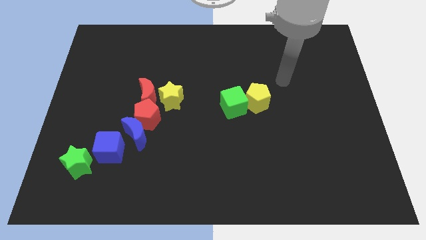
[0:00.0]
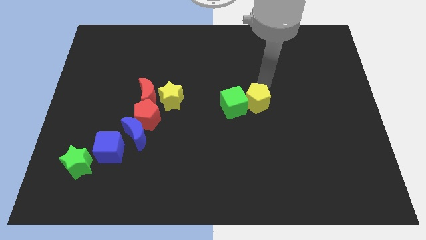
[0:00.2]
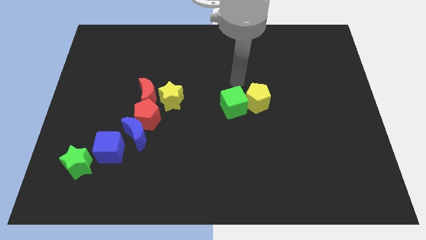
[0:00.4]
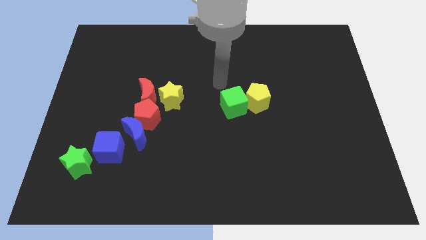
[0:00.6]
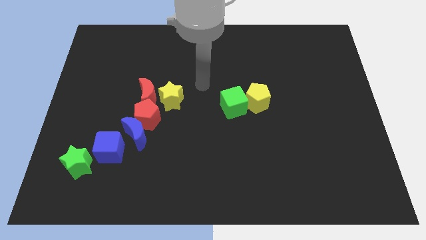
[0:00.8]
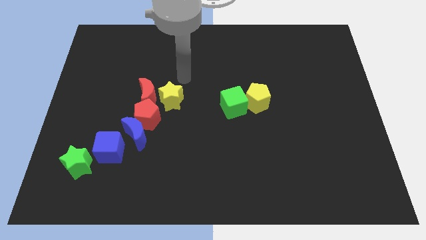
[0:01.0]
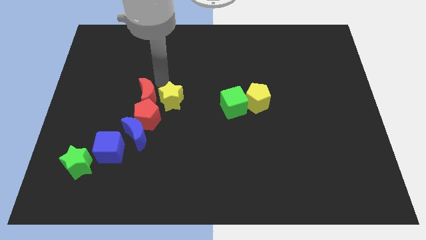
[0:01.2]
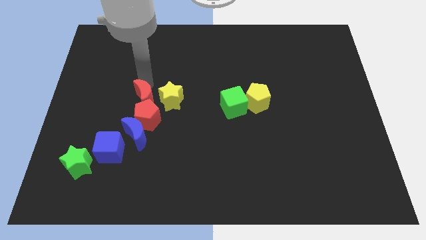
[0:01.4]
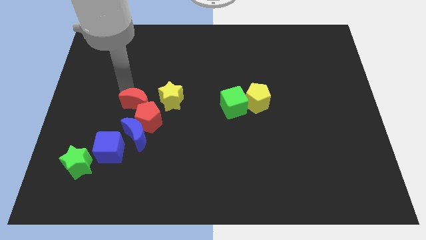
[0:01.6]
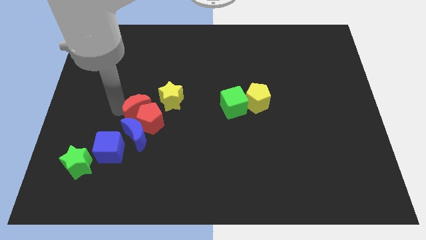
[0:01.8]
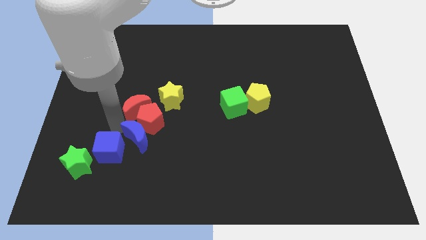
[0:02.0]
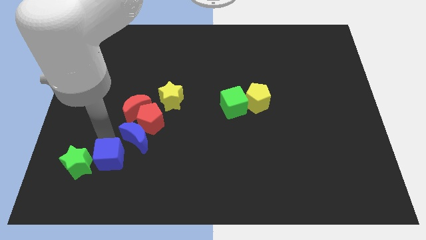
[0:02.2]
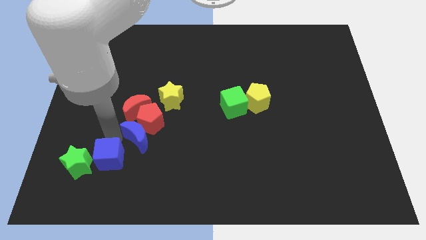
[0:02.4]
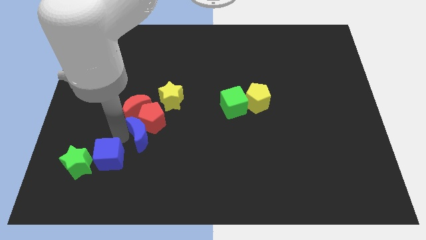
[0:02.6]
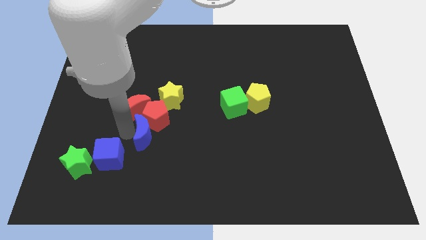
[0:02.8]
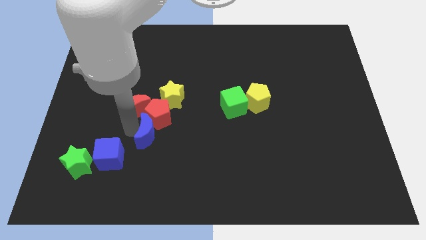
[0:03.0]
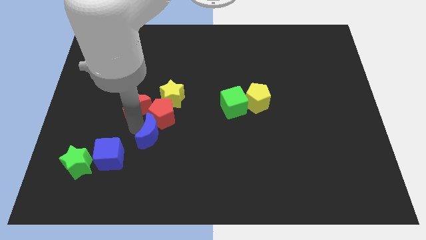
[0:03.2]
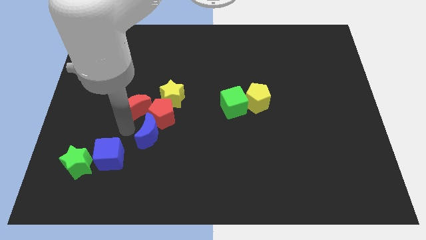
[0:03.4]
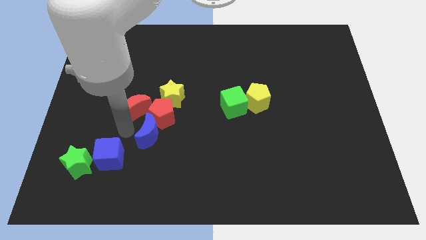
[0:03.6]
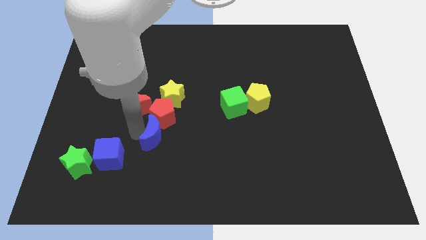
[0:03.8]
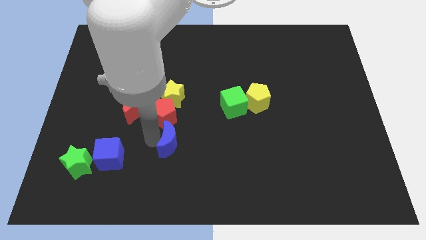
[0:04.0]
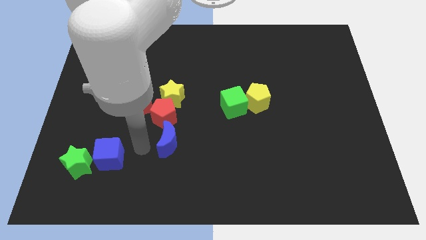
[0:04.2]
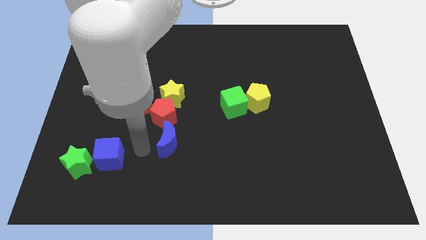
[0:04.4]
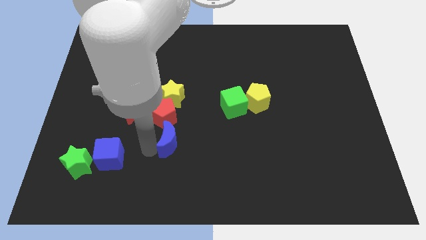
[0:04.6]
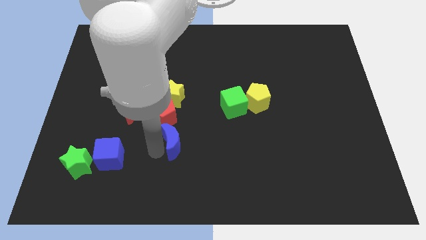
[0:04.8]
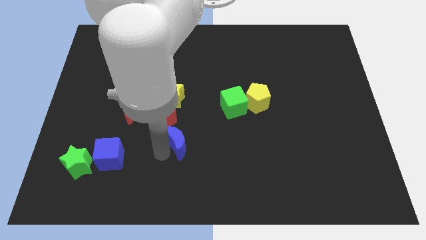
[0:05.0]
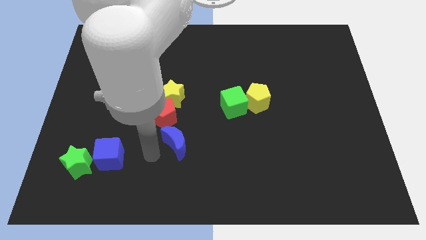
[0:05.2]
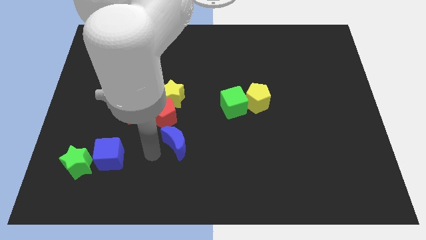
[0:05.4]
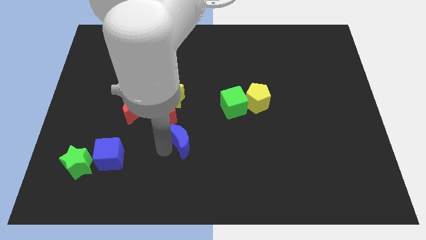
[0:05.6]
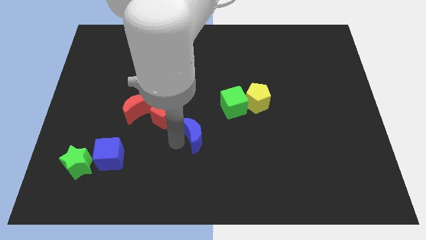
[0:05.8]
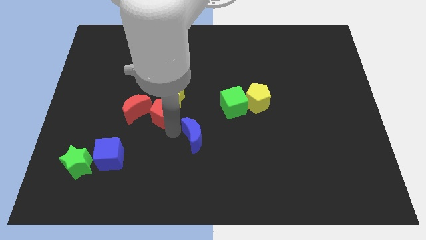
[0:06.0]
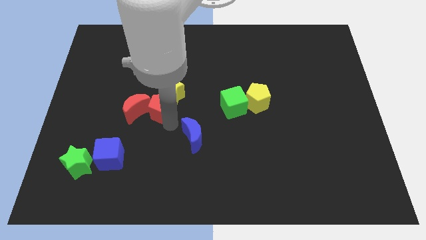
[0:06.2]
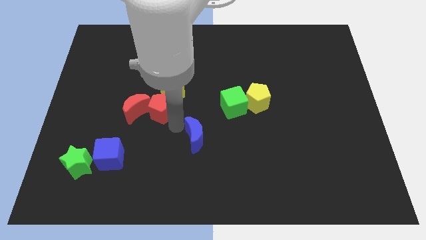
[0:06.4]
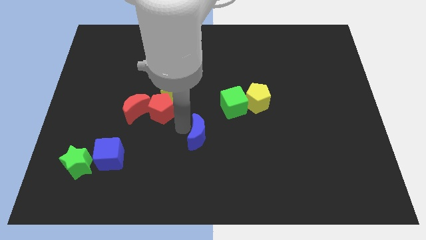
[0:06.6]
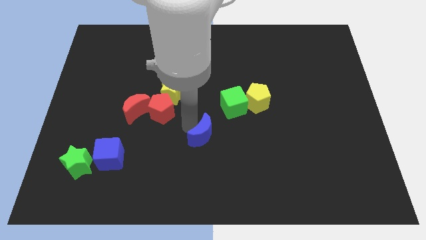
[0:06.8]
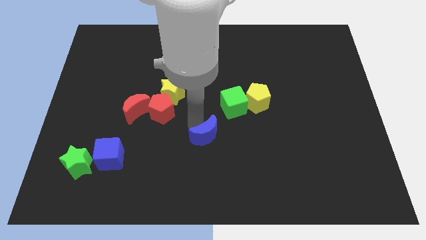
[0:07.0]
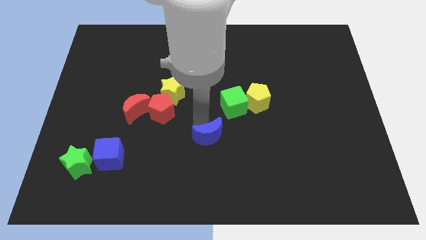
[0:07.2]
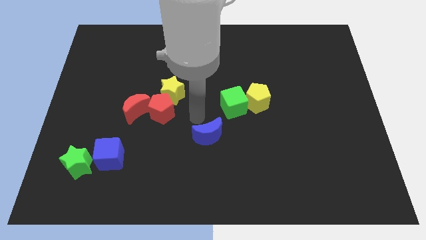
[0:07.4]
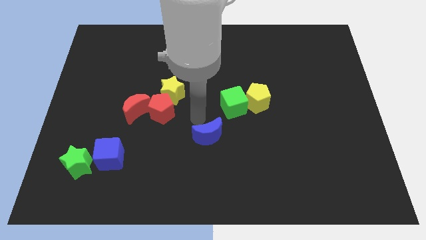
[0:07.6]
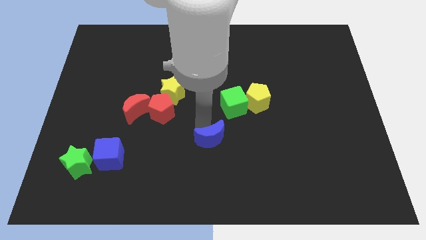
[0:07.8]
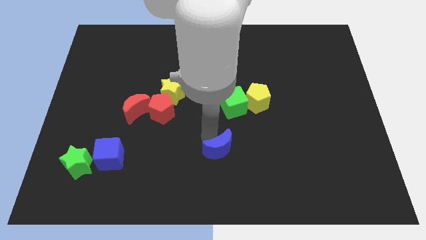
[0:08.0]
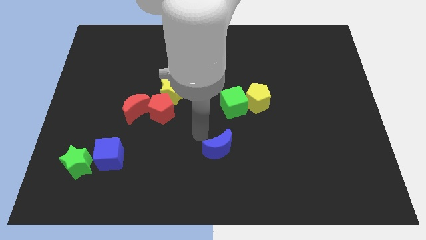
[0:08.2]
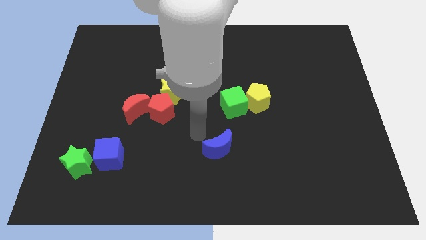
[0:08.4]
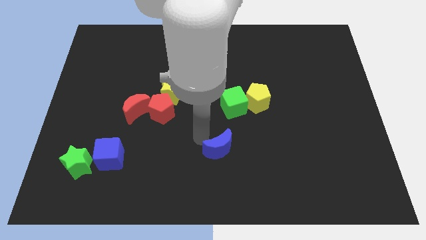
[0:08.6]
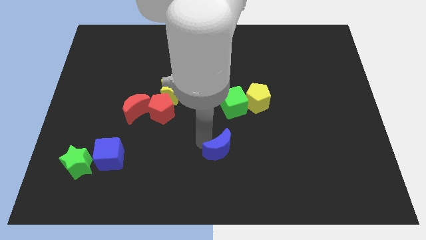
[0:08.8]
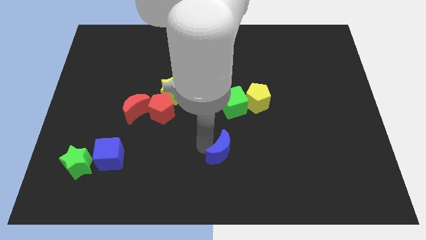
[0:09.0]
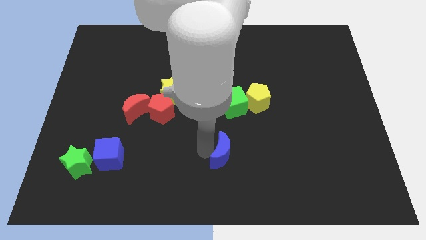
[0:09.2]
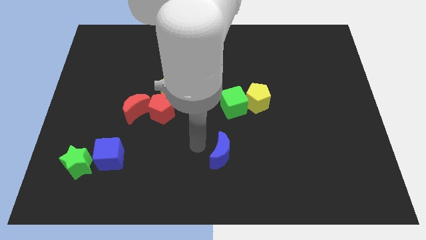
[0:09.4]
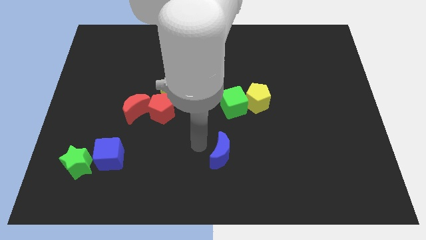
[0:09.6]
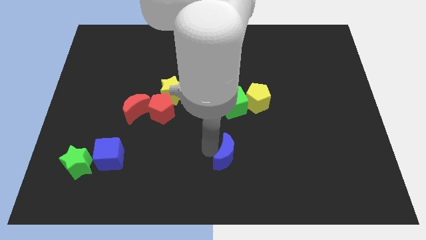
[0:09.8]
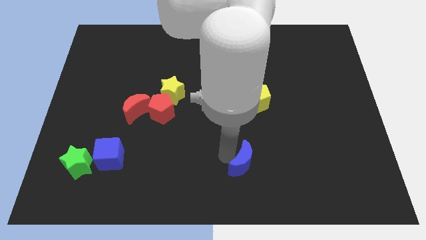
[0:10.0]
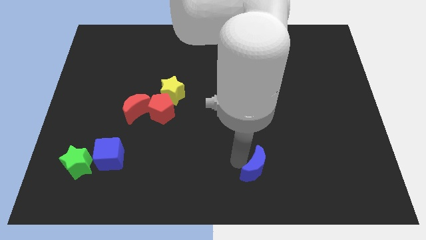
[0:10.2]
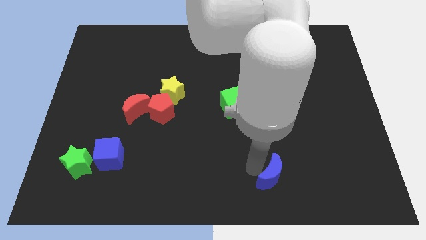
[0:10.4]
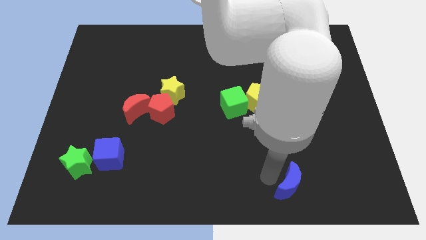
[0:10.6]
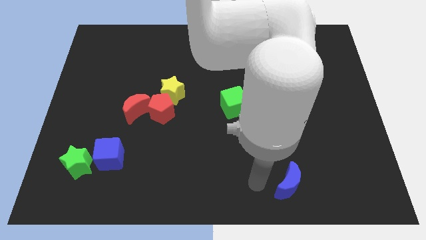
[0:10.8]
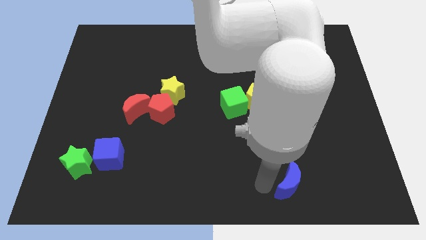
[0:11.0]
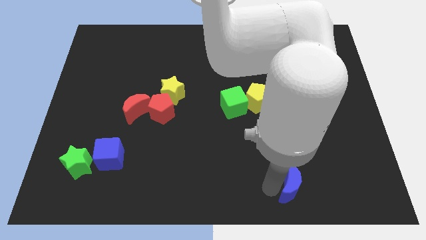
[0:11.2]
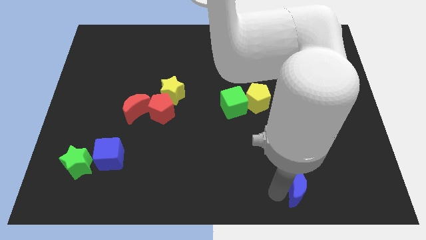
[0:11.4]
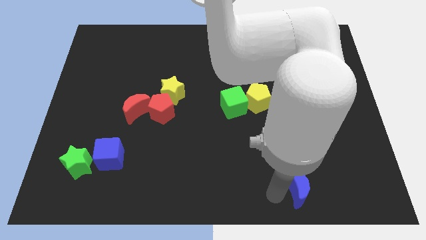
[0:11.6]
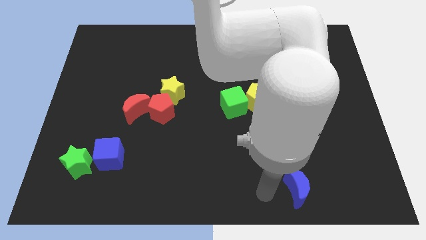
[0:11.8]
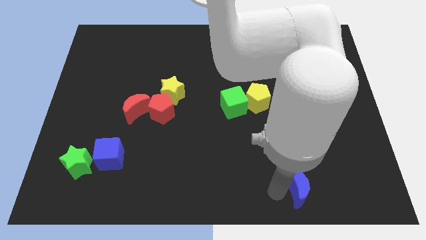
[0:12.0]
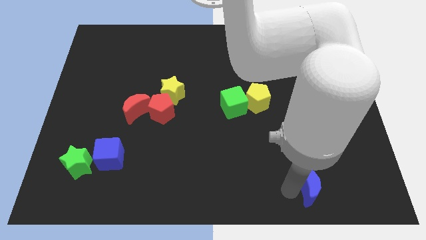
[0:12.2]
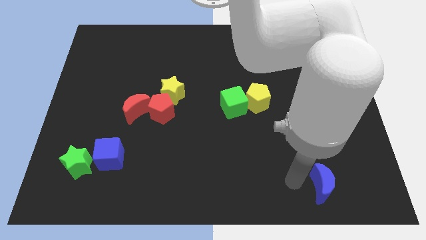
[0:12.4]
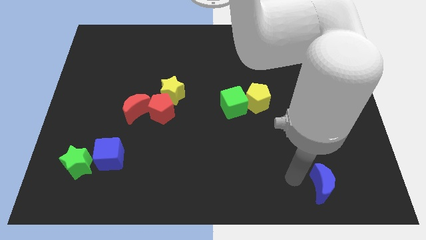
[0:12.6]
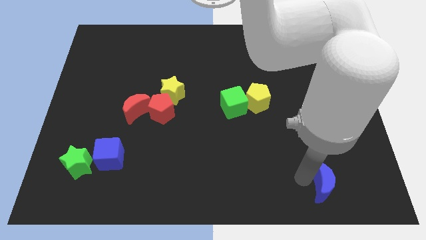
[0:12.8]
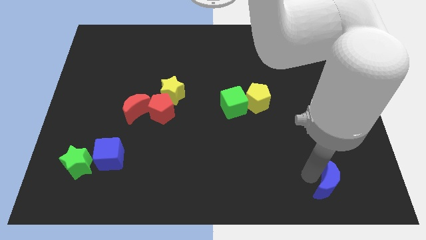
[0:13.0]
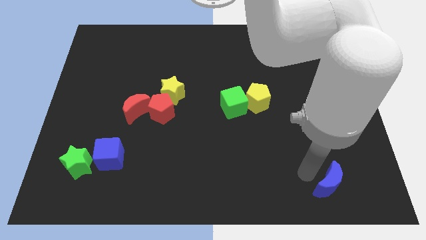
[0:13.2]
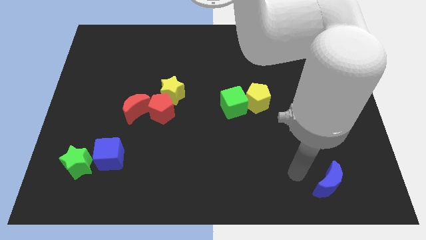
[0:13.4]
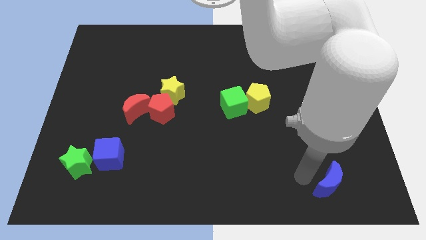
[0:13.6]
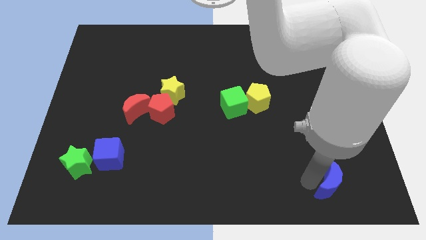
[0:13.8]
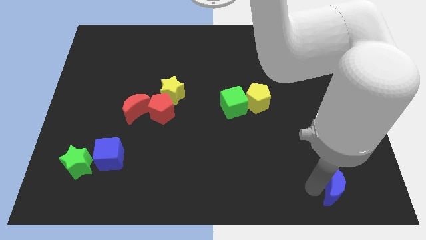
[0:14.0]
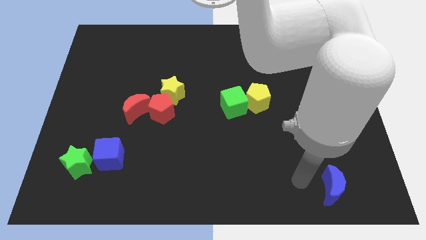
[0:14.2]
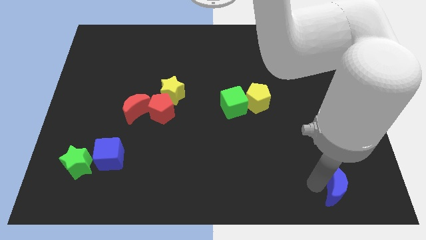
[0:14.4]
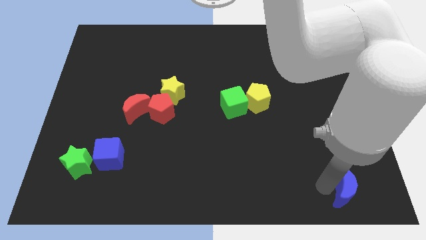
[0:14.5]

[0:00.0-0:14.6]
put the blue moon to the bottom right
